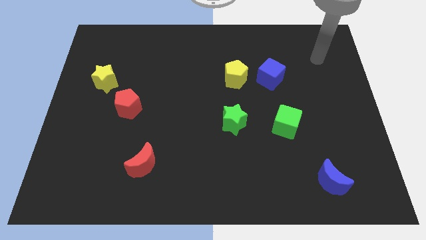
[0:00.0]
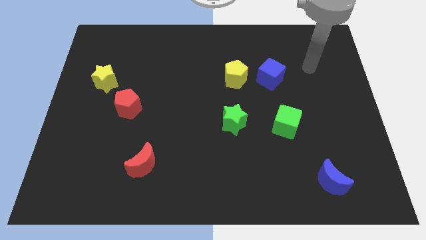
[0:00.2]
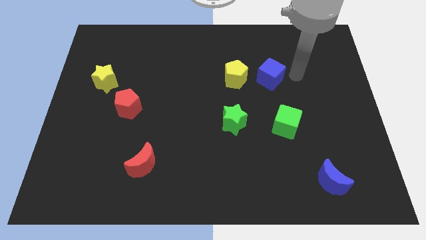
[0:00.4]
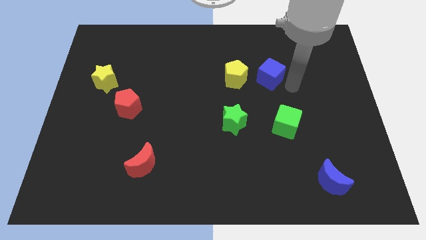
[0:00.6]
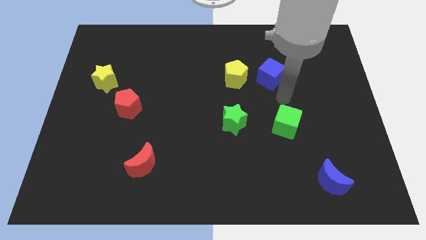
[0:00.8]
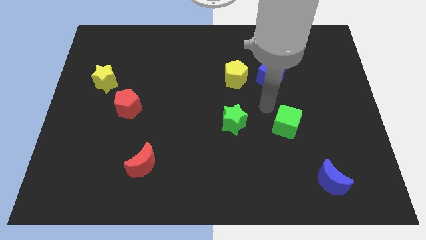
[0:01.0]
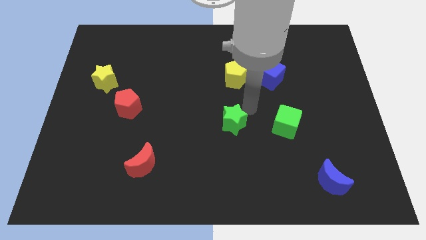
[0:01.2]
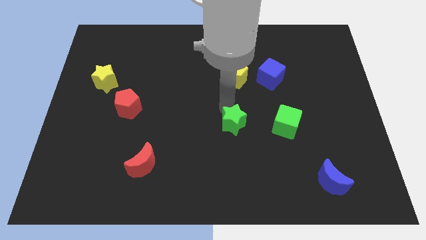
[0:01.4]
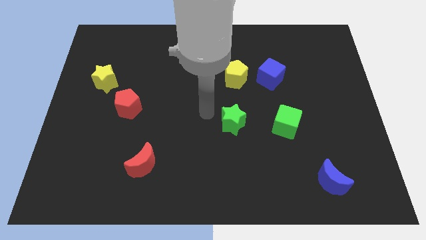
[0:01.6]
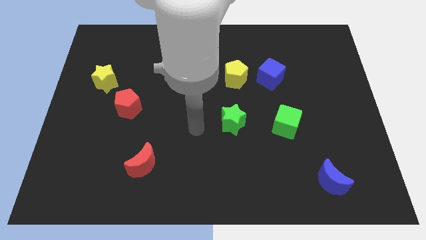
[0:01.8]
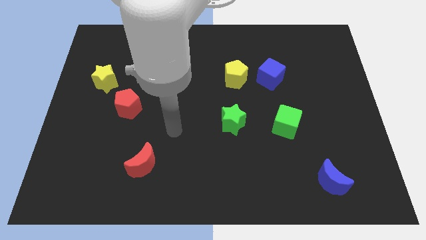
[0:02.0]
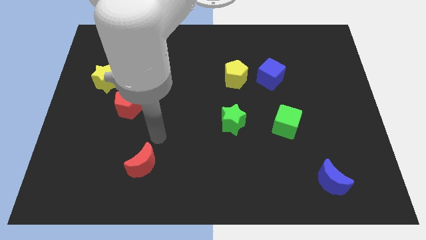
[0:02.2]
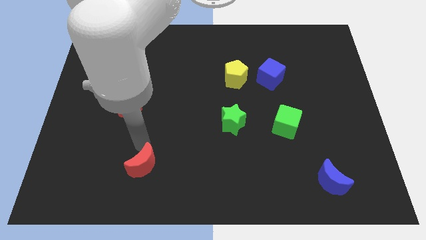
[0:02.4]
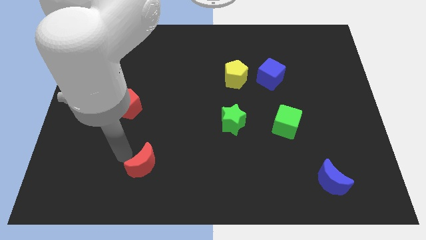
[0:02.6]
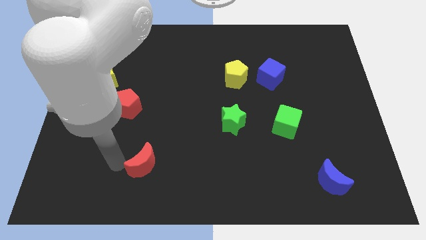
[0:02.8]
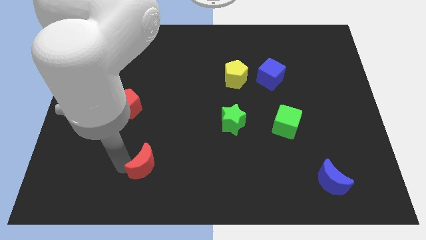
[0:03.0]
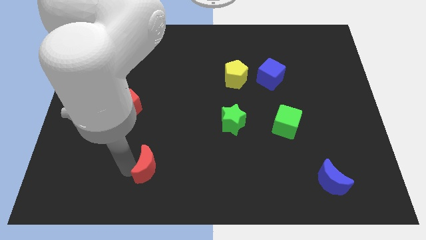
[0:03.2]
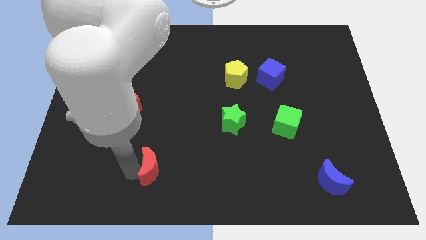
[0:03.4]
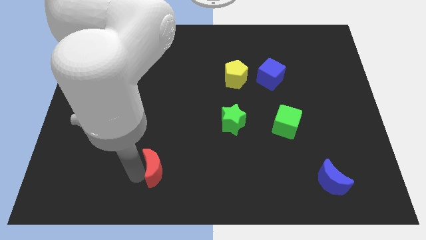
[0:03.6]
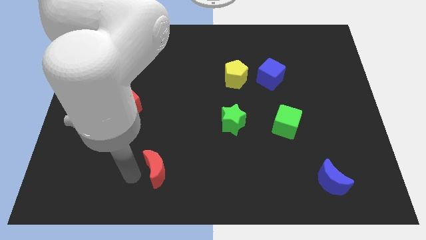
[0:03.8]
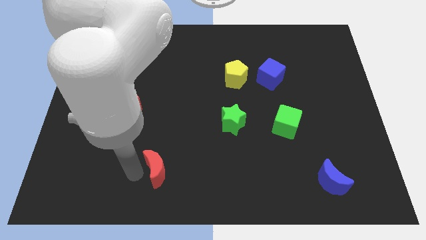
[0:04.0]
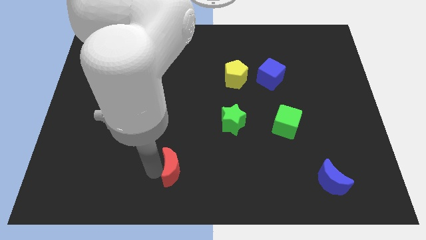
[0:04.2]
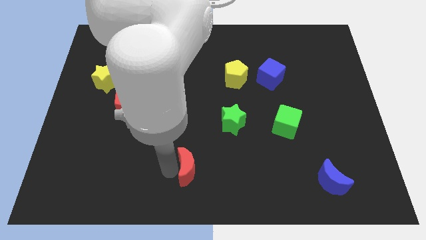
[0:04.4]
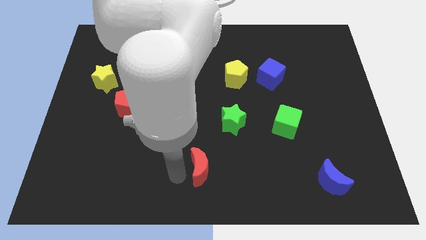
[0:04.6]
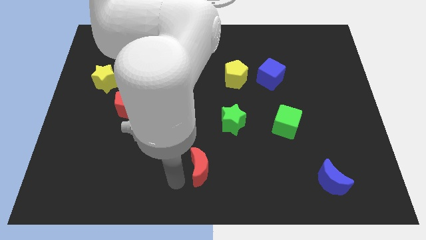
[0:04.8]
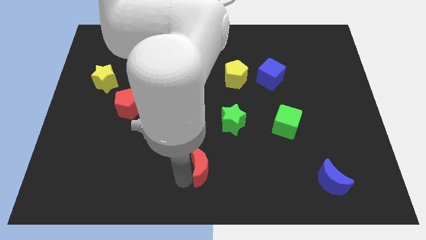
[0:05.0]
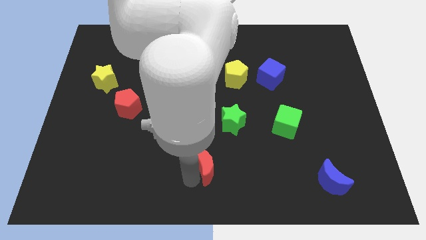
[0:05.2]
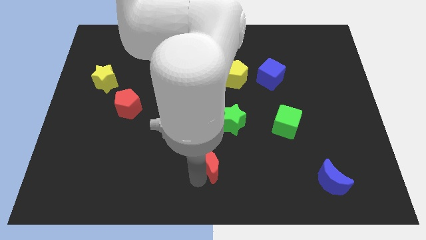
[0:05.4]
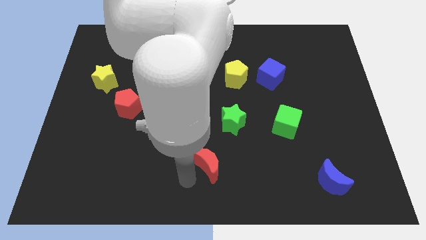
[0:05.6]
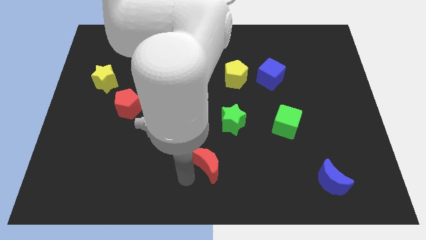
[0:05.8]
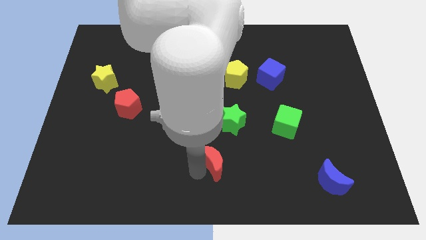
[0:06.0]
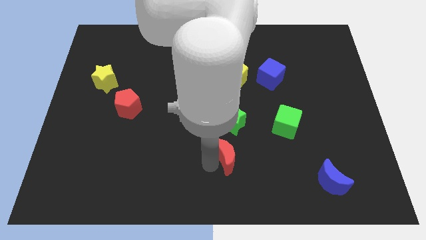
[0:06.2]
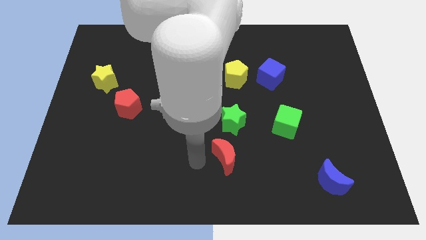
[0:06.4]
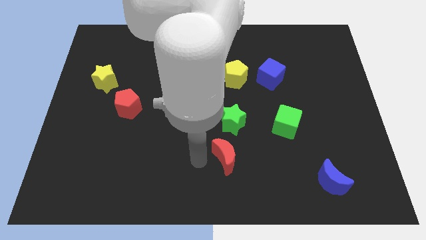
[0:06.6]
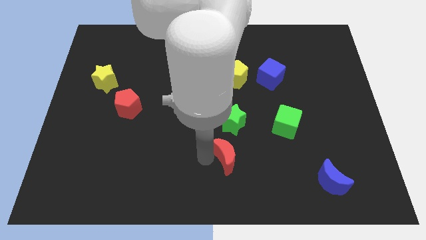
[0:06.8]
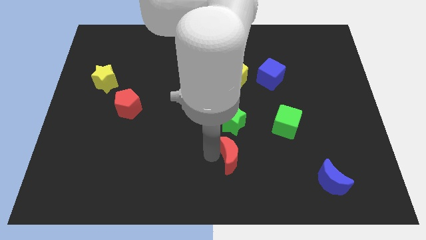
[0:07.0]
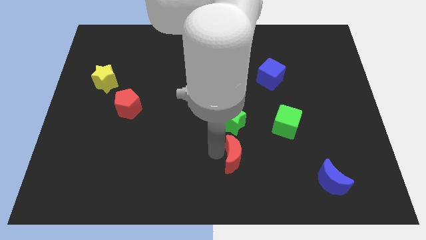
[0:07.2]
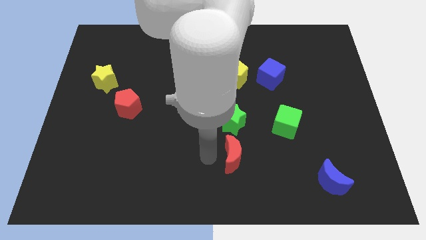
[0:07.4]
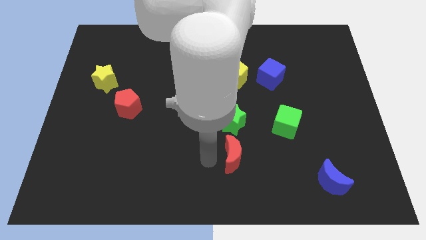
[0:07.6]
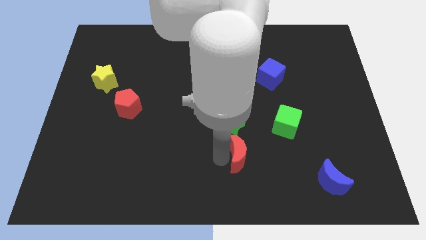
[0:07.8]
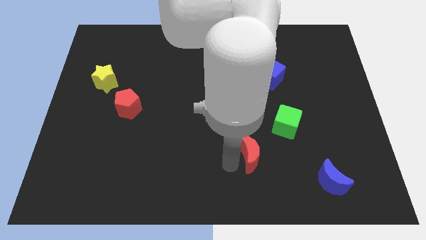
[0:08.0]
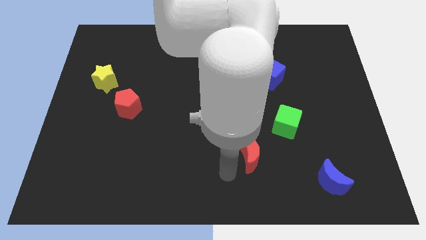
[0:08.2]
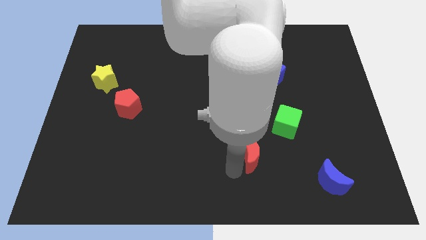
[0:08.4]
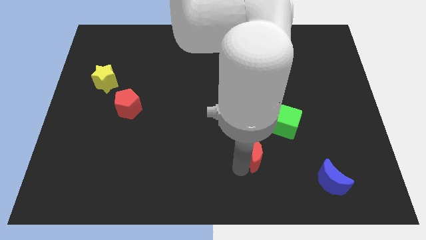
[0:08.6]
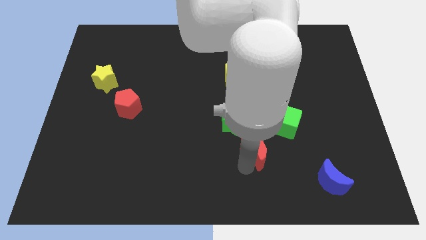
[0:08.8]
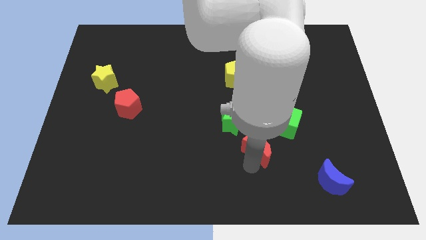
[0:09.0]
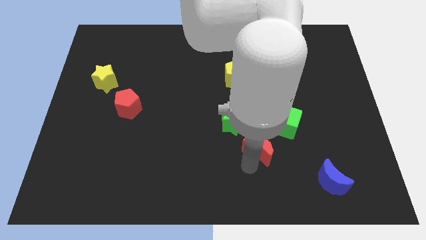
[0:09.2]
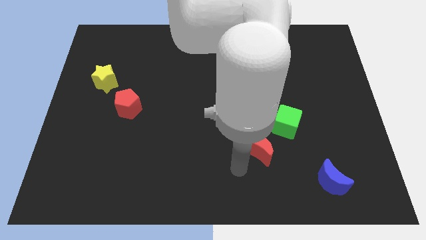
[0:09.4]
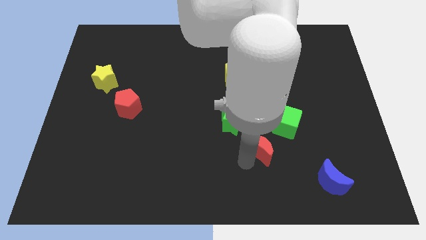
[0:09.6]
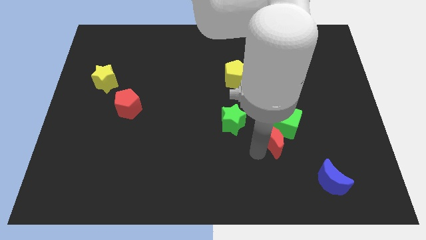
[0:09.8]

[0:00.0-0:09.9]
push the red moon close to the green cube

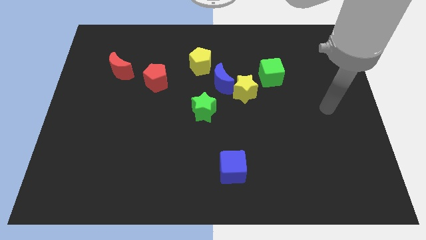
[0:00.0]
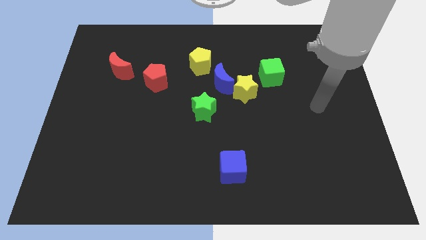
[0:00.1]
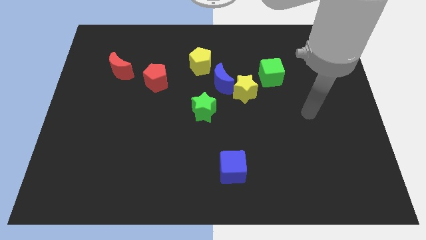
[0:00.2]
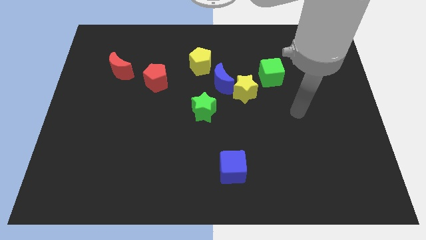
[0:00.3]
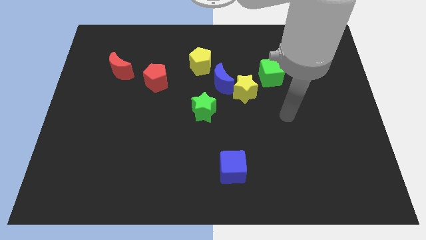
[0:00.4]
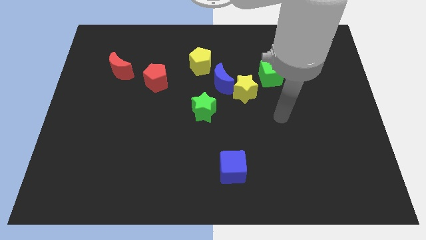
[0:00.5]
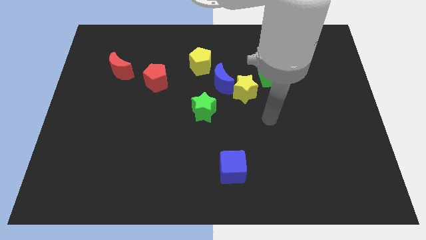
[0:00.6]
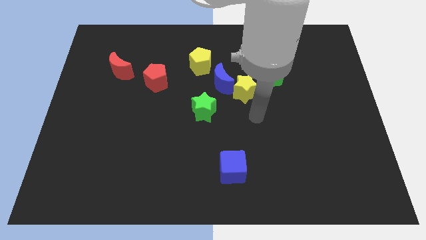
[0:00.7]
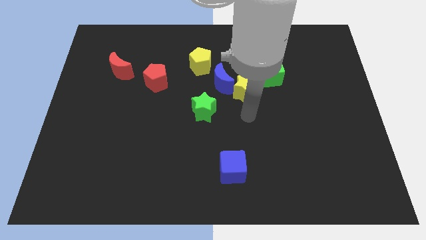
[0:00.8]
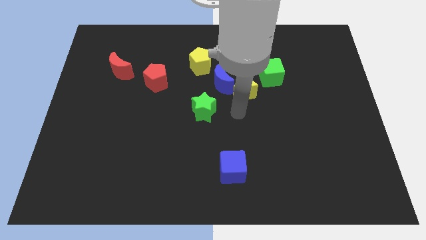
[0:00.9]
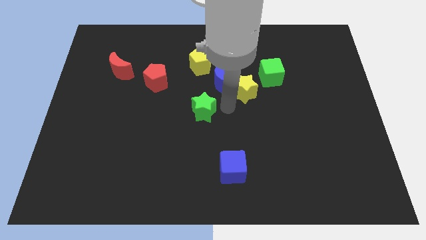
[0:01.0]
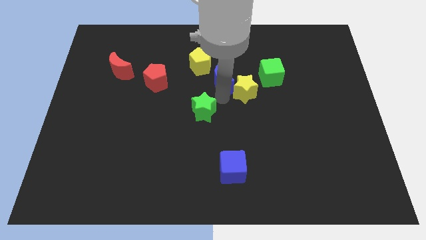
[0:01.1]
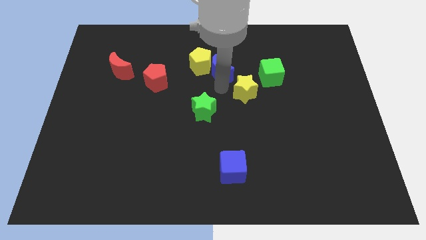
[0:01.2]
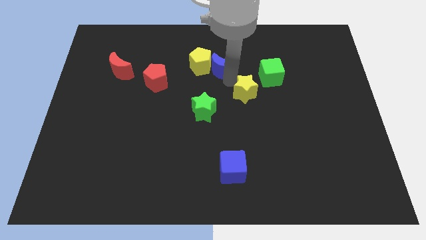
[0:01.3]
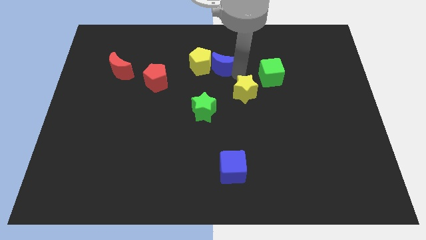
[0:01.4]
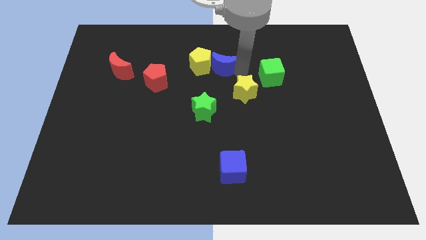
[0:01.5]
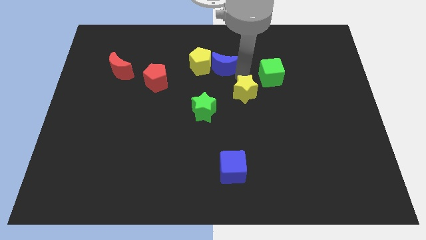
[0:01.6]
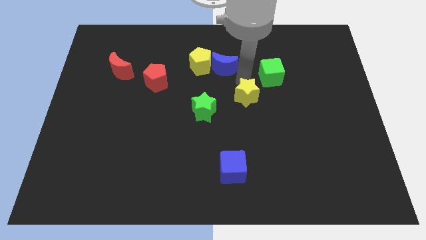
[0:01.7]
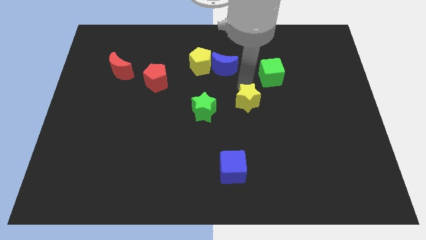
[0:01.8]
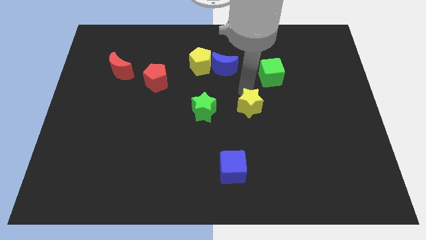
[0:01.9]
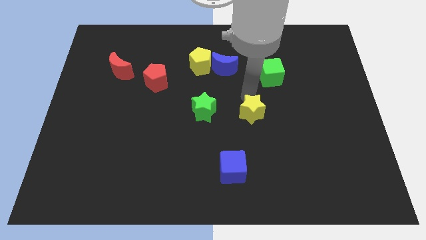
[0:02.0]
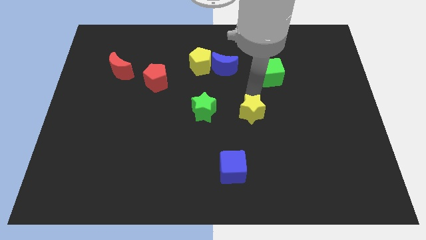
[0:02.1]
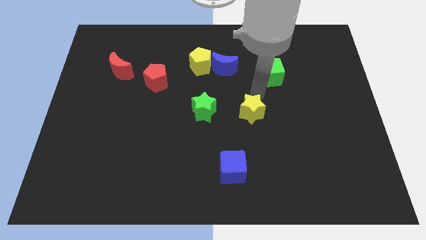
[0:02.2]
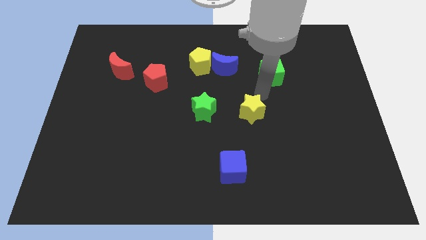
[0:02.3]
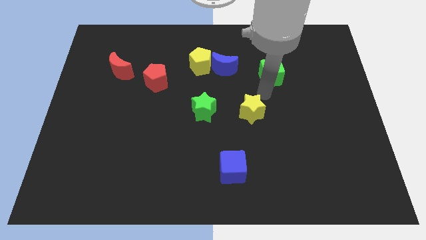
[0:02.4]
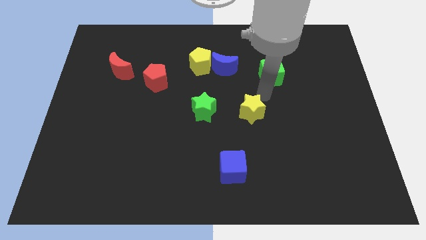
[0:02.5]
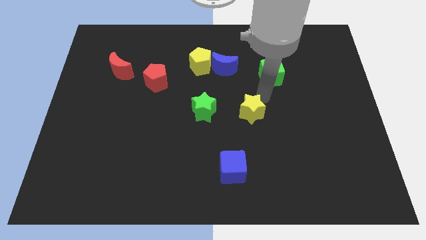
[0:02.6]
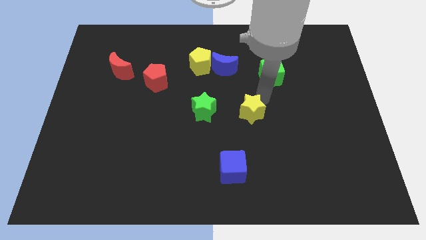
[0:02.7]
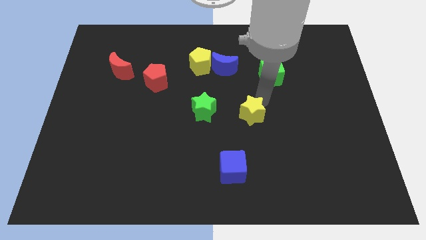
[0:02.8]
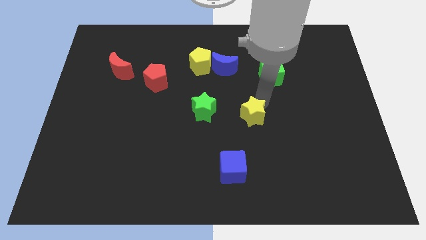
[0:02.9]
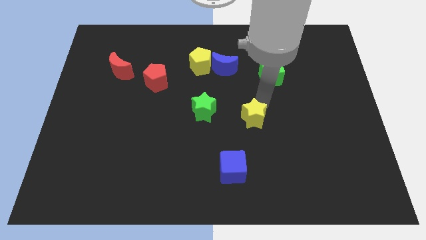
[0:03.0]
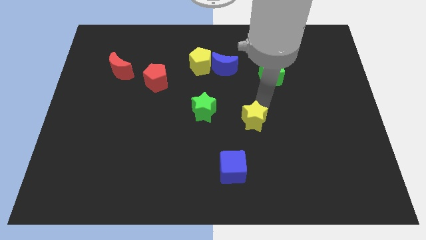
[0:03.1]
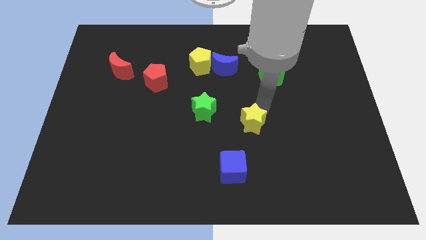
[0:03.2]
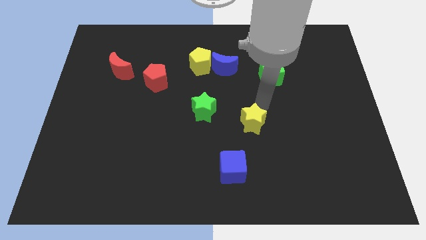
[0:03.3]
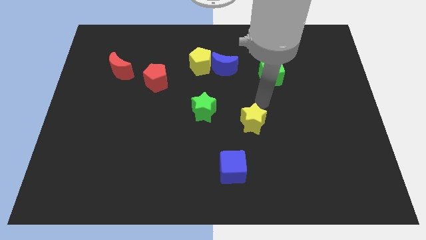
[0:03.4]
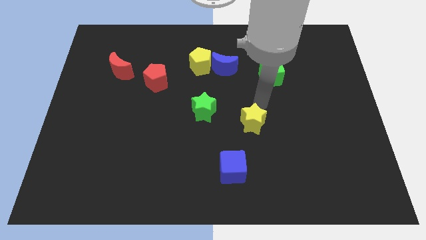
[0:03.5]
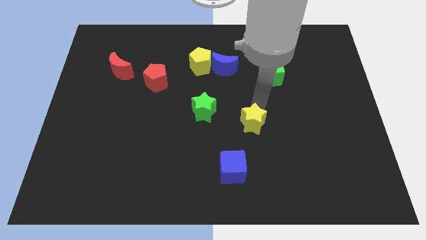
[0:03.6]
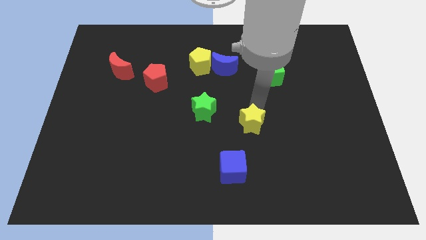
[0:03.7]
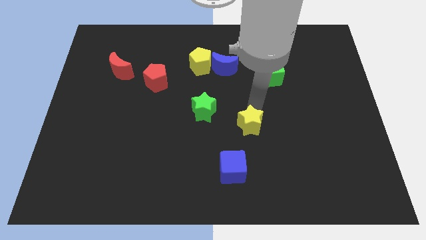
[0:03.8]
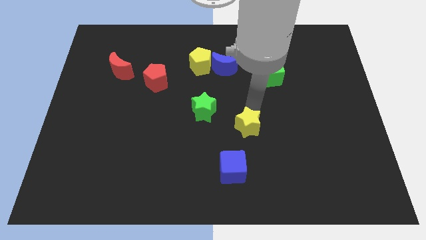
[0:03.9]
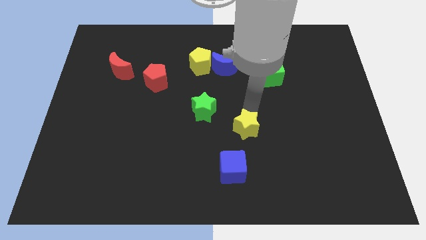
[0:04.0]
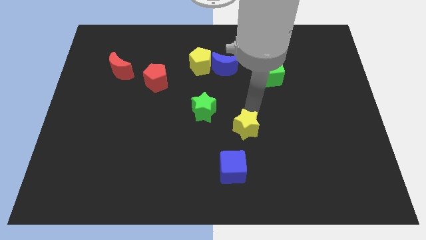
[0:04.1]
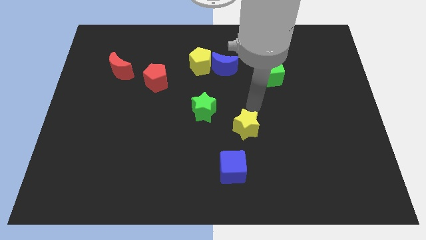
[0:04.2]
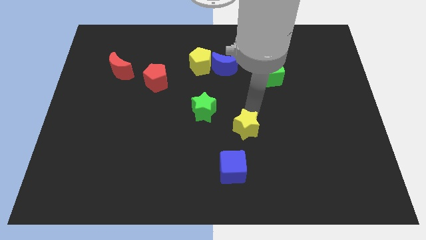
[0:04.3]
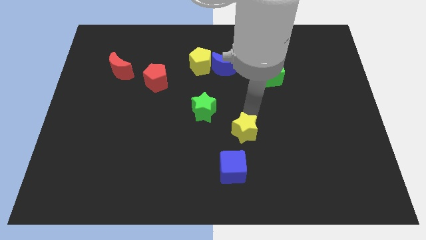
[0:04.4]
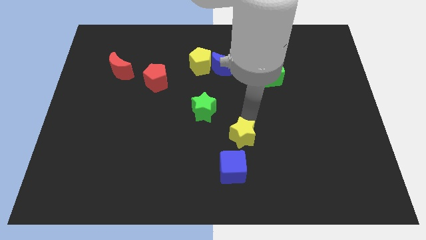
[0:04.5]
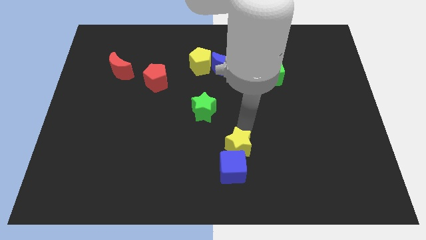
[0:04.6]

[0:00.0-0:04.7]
move the yellow star close to the blue cube
